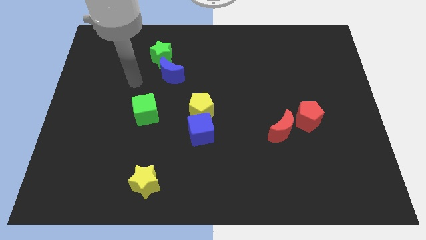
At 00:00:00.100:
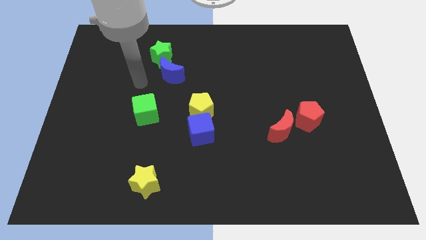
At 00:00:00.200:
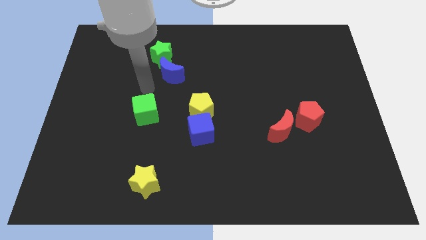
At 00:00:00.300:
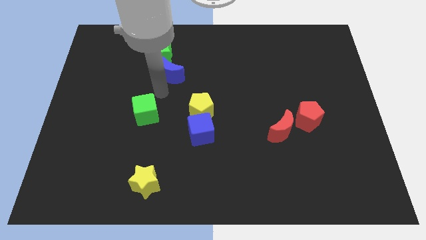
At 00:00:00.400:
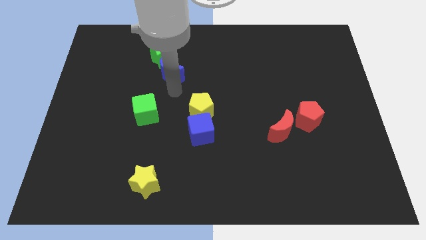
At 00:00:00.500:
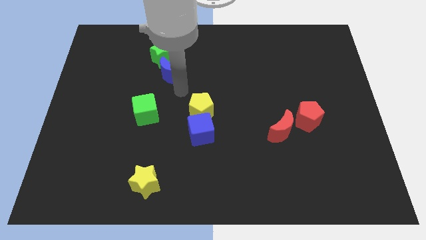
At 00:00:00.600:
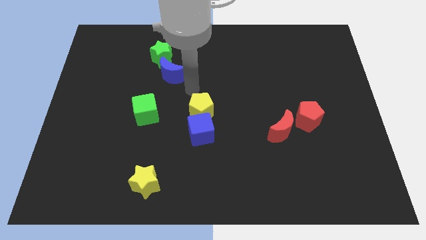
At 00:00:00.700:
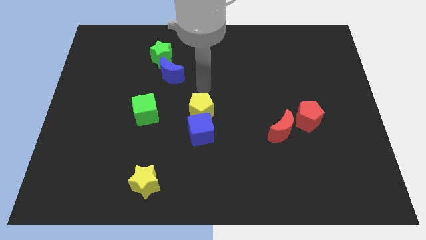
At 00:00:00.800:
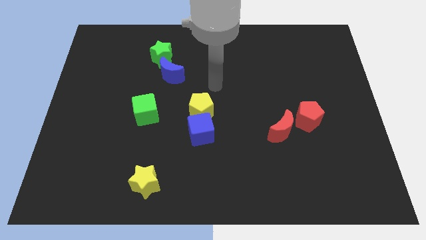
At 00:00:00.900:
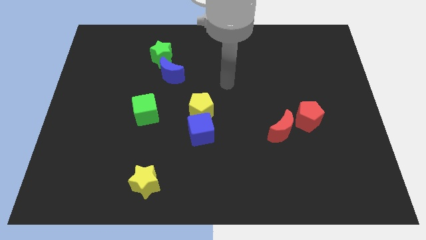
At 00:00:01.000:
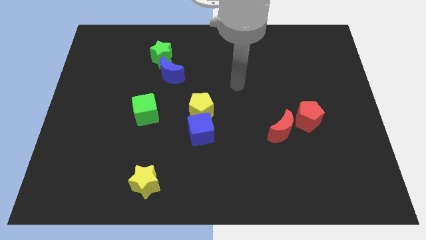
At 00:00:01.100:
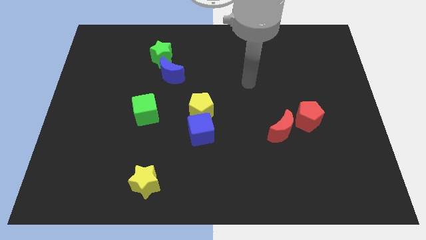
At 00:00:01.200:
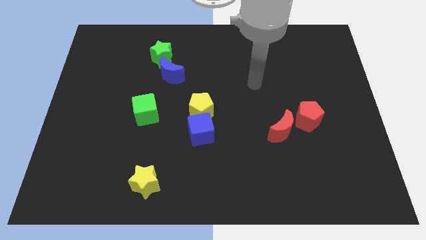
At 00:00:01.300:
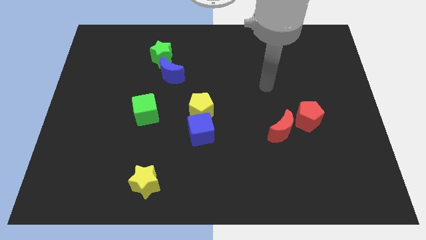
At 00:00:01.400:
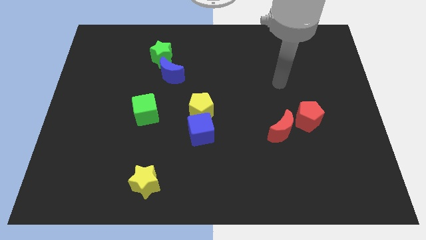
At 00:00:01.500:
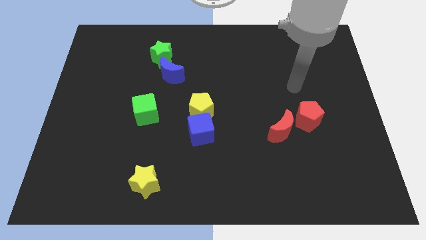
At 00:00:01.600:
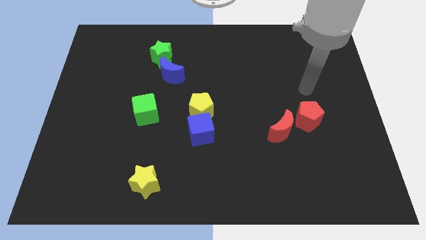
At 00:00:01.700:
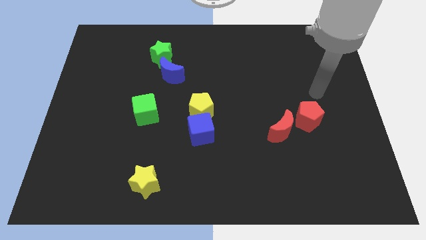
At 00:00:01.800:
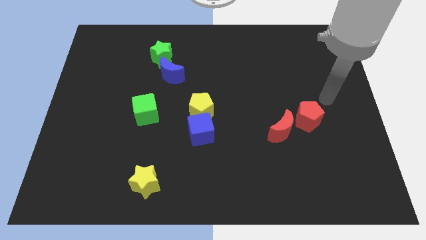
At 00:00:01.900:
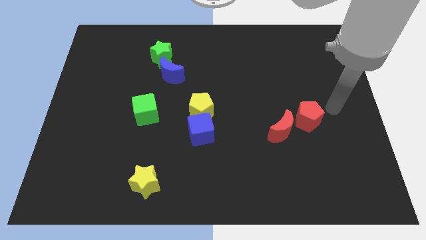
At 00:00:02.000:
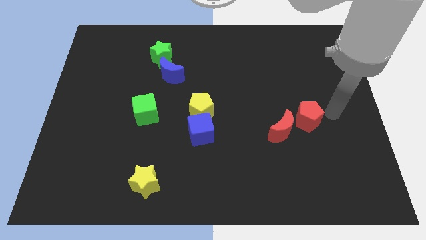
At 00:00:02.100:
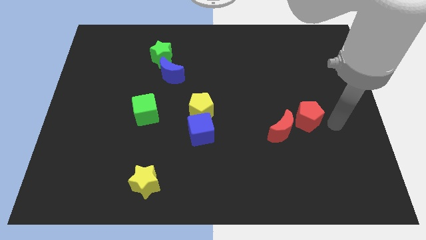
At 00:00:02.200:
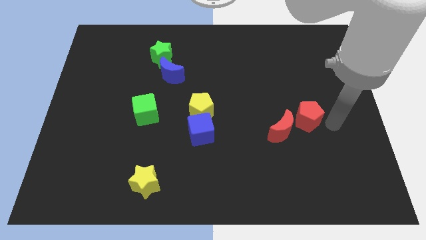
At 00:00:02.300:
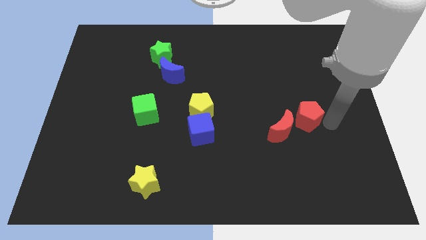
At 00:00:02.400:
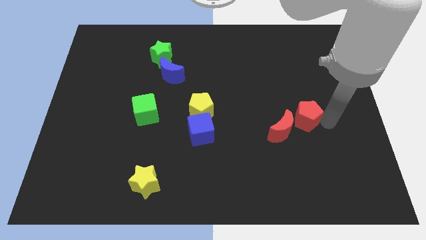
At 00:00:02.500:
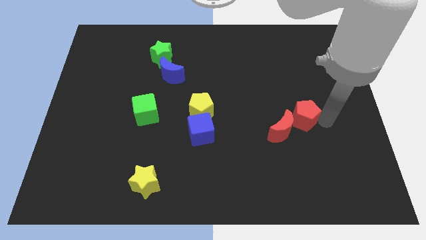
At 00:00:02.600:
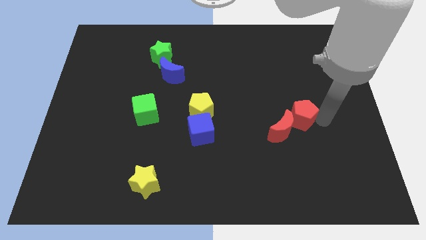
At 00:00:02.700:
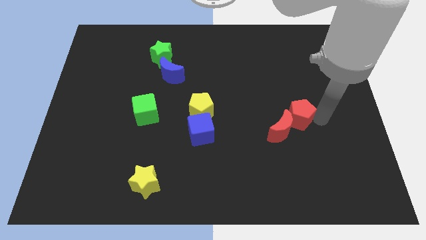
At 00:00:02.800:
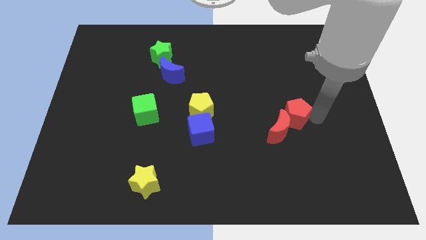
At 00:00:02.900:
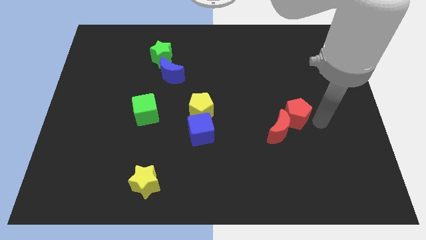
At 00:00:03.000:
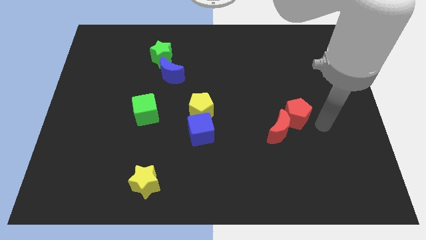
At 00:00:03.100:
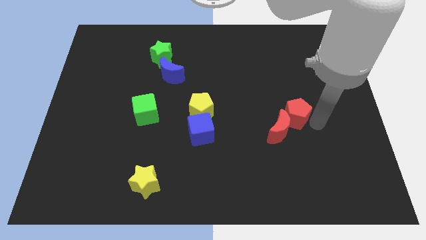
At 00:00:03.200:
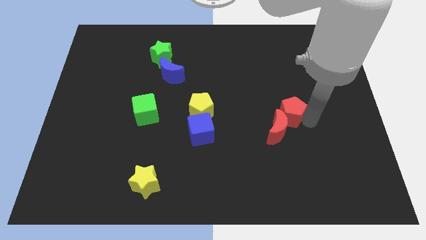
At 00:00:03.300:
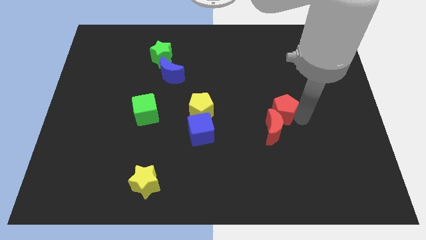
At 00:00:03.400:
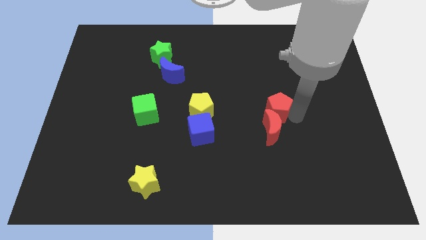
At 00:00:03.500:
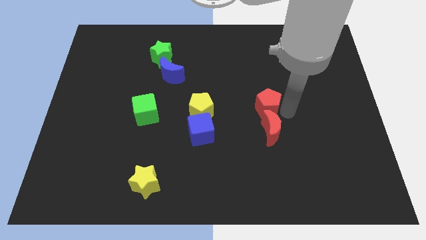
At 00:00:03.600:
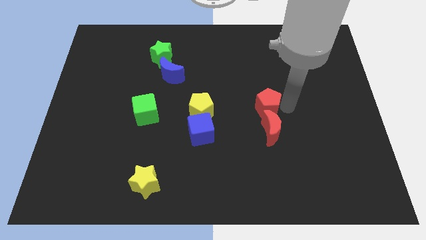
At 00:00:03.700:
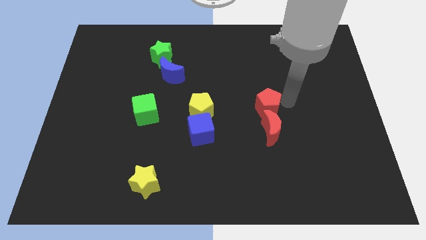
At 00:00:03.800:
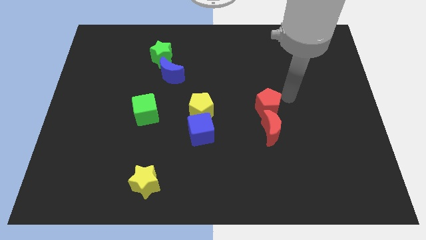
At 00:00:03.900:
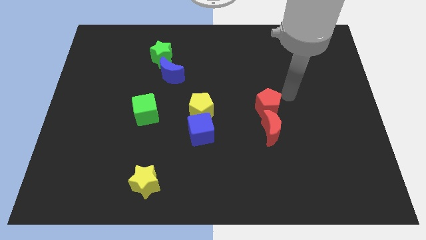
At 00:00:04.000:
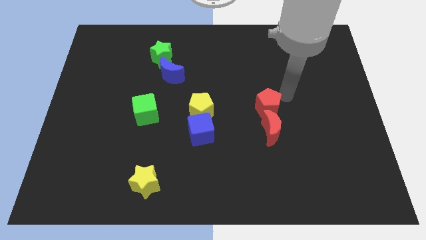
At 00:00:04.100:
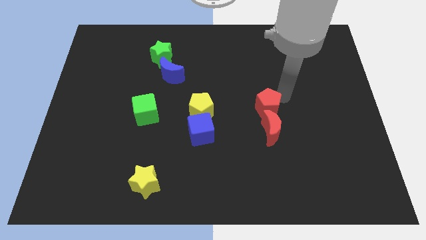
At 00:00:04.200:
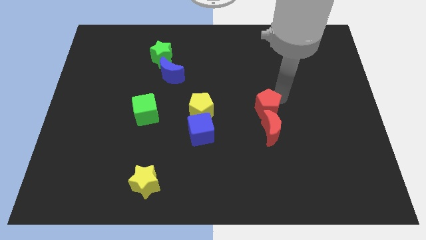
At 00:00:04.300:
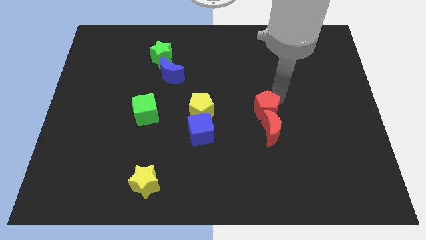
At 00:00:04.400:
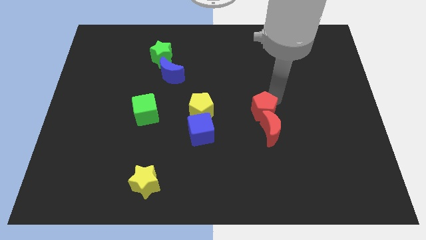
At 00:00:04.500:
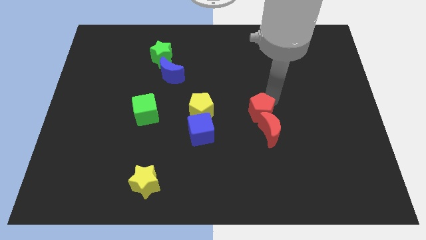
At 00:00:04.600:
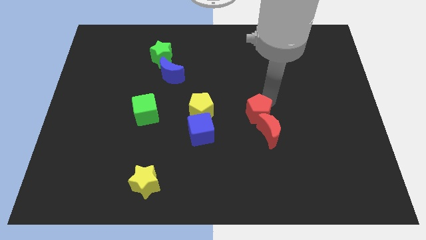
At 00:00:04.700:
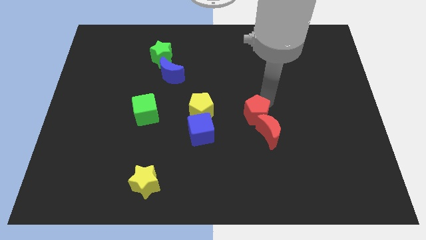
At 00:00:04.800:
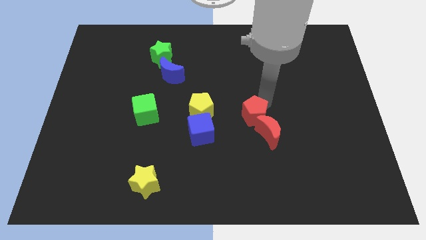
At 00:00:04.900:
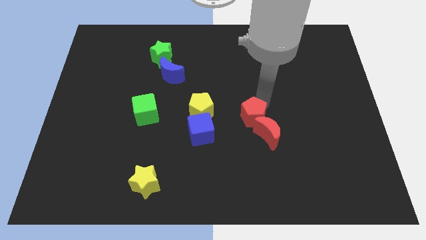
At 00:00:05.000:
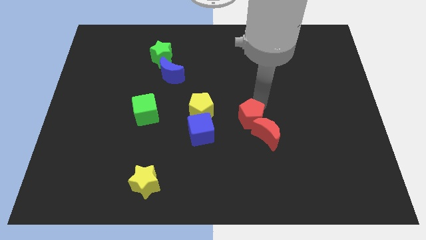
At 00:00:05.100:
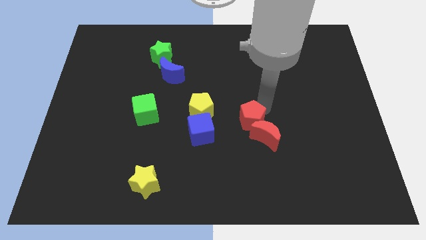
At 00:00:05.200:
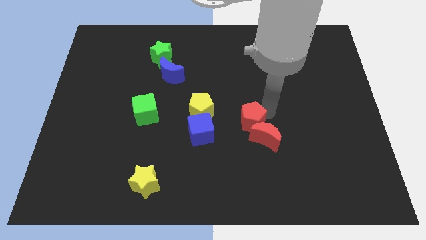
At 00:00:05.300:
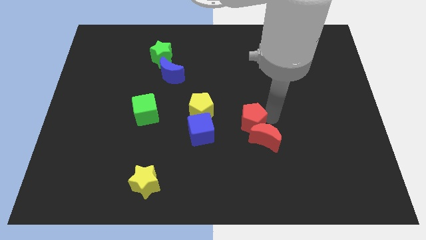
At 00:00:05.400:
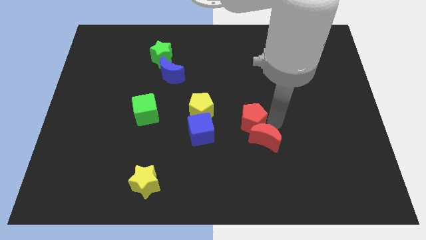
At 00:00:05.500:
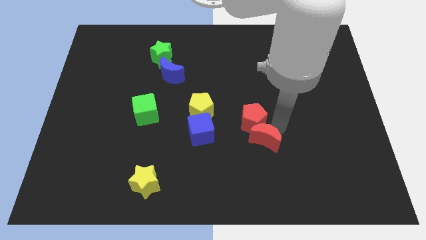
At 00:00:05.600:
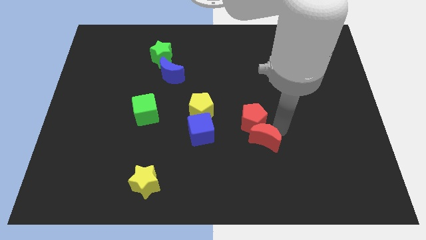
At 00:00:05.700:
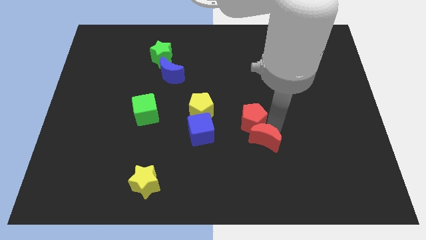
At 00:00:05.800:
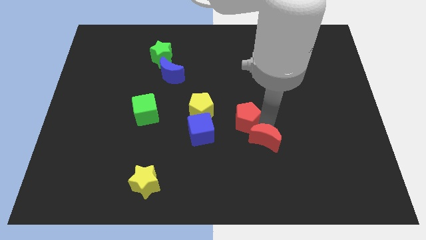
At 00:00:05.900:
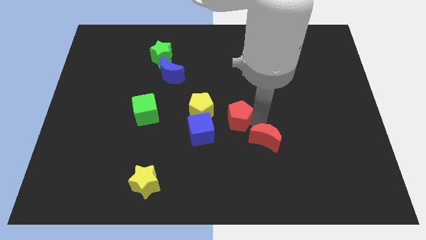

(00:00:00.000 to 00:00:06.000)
put the red pentagon to the top right side of the blue cube
